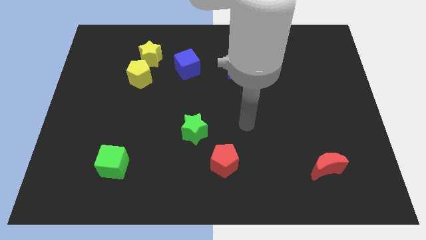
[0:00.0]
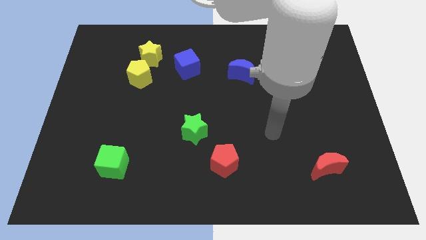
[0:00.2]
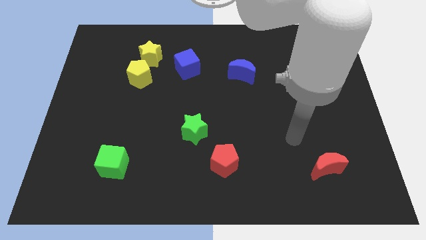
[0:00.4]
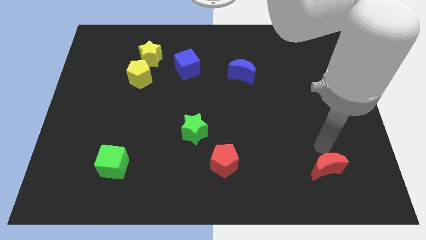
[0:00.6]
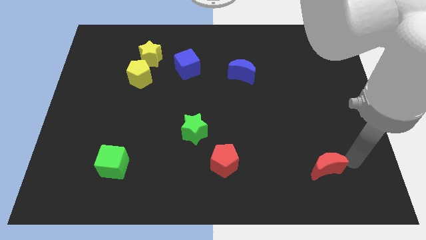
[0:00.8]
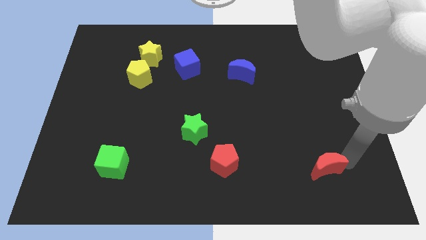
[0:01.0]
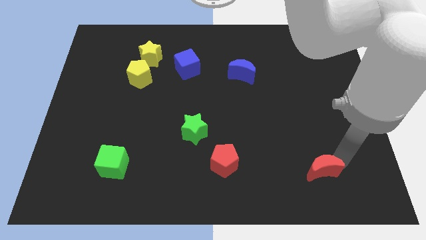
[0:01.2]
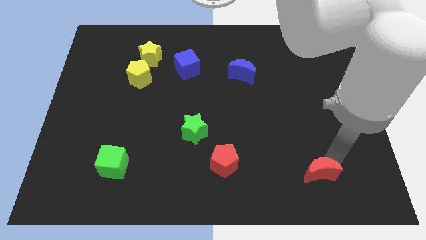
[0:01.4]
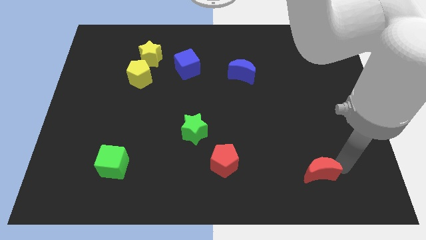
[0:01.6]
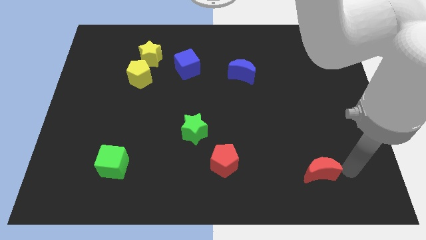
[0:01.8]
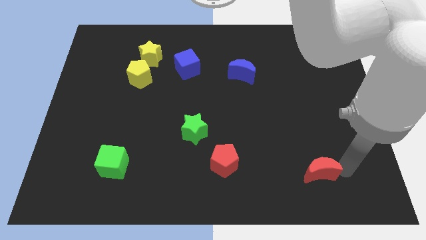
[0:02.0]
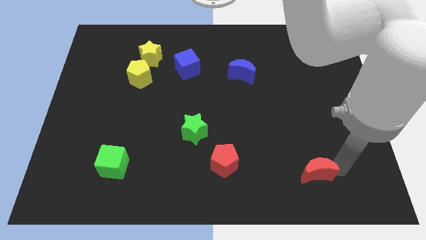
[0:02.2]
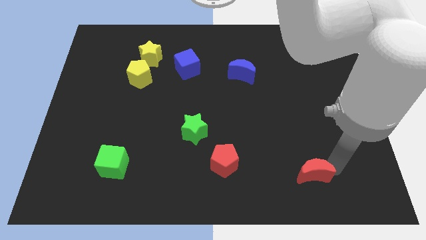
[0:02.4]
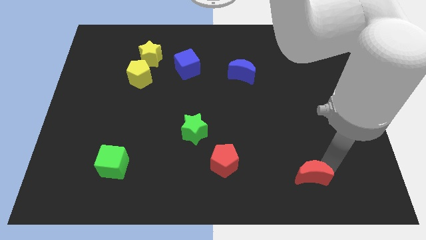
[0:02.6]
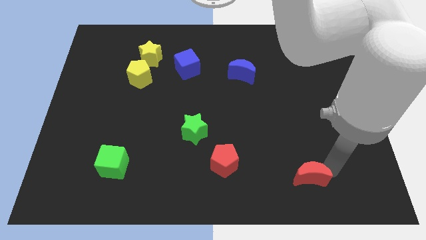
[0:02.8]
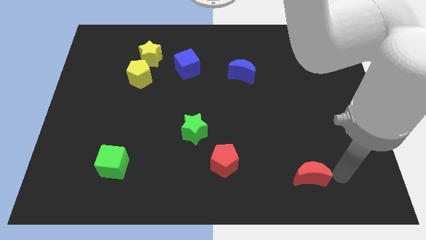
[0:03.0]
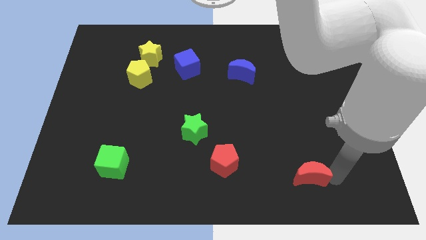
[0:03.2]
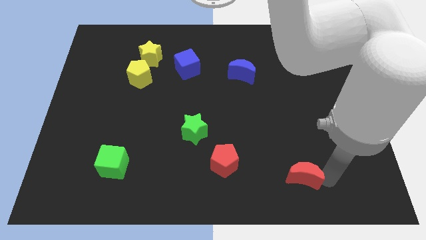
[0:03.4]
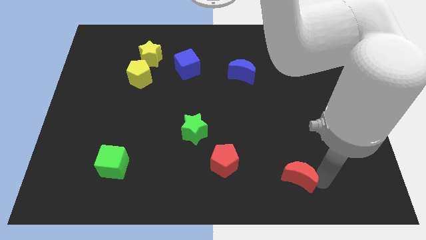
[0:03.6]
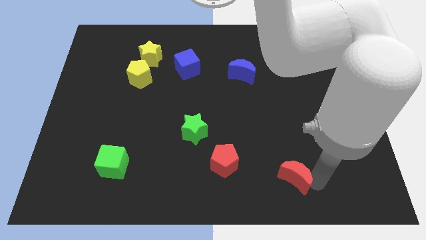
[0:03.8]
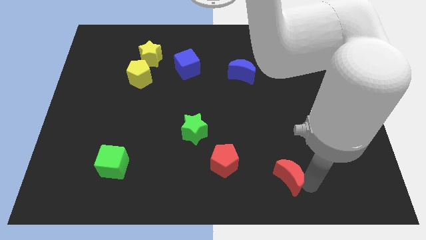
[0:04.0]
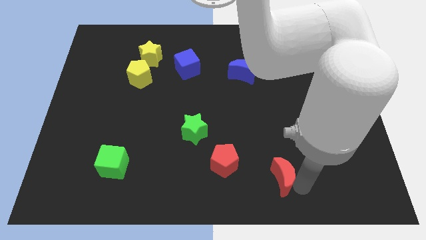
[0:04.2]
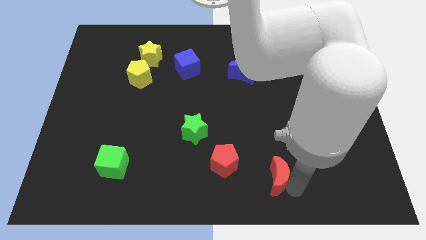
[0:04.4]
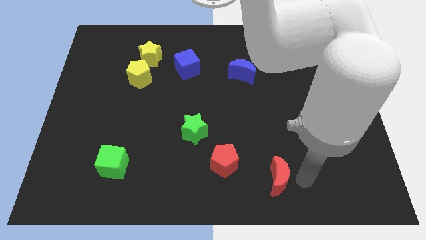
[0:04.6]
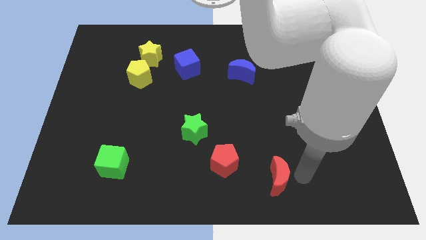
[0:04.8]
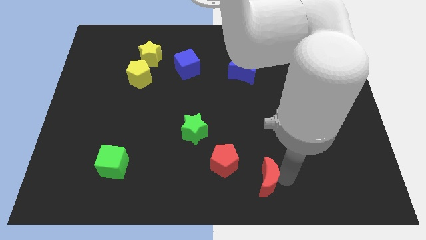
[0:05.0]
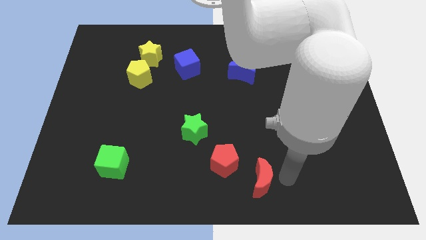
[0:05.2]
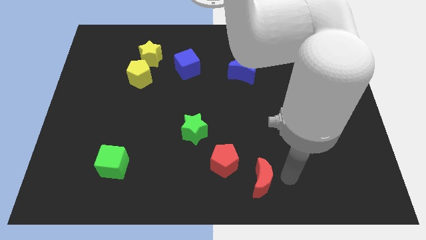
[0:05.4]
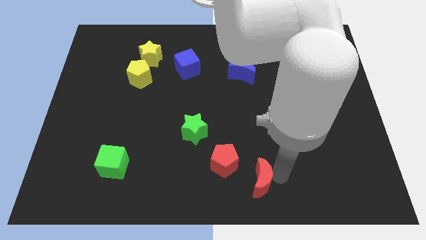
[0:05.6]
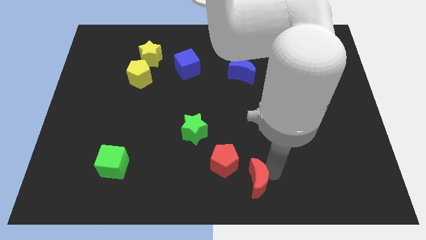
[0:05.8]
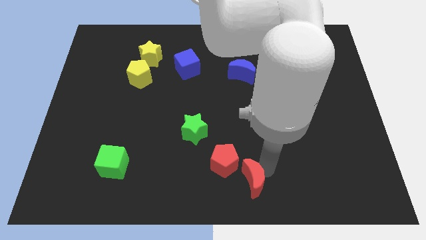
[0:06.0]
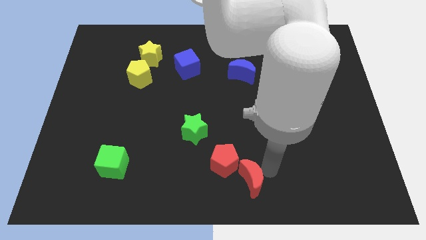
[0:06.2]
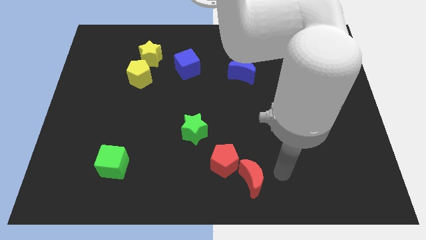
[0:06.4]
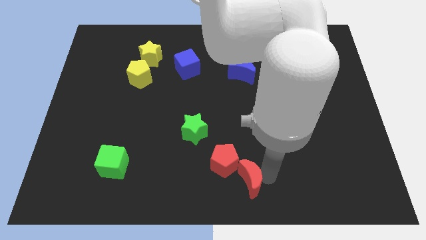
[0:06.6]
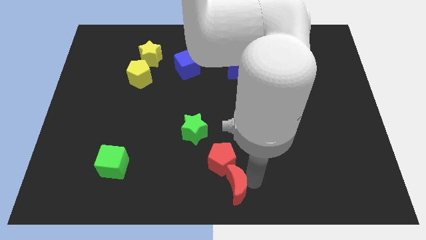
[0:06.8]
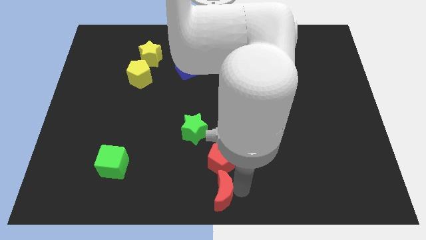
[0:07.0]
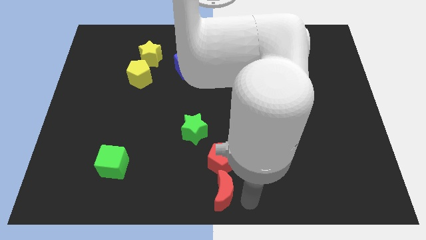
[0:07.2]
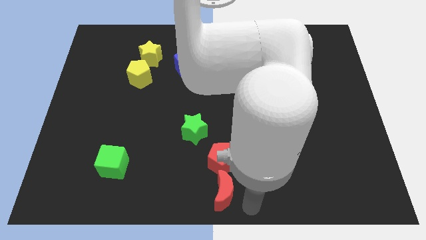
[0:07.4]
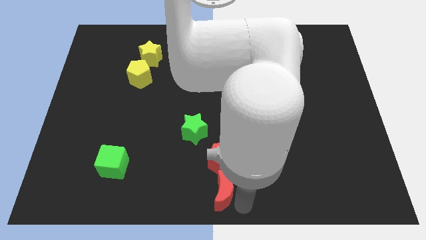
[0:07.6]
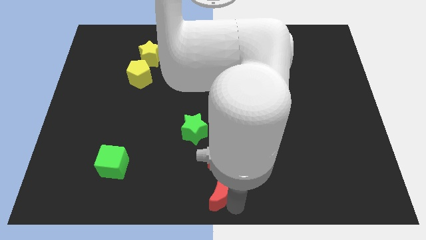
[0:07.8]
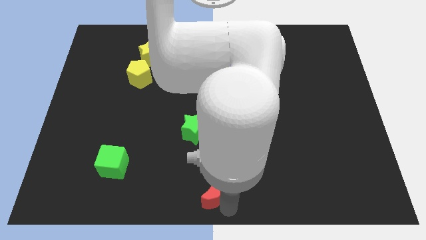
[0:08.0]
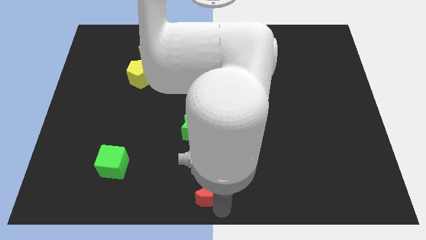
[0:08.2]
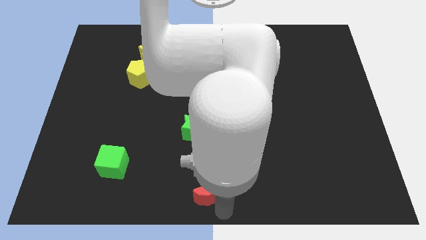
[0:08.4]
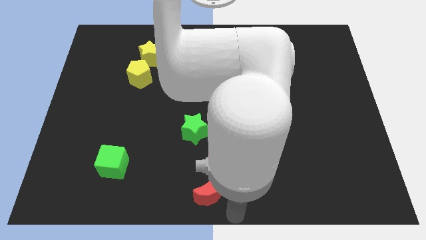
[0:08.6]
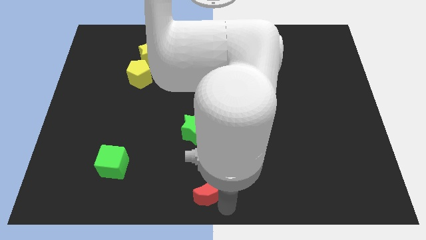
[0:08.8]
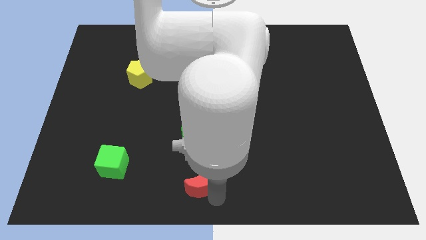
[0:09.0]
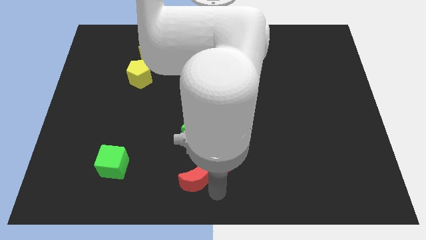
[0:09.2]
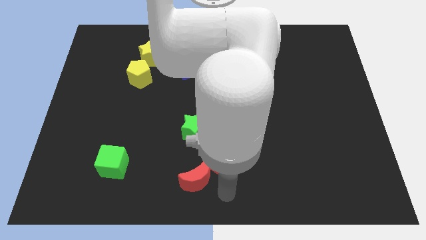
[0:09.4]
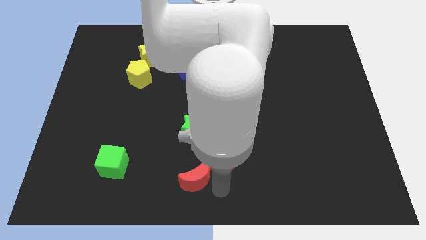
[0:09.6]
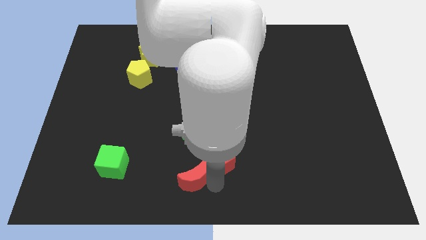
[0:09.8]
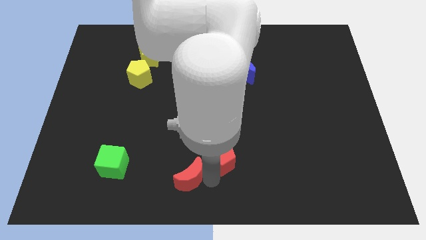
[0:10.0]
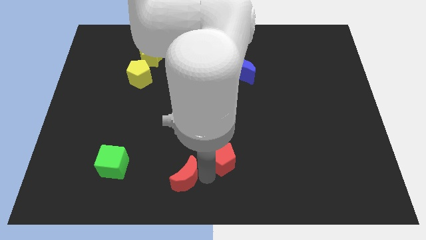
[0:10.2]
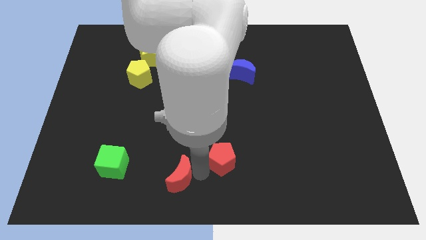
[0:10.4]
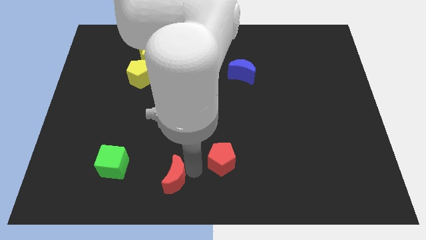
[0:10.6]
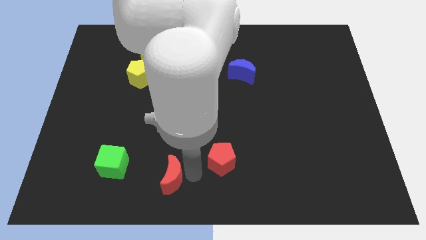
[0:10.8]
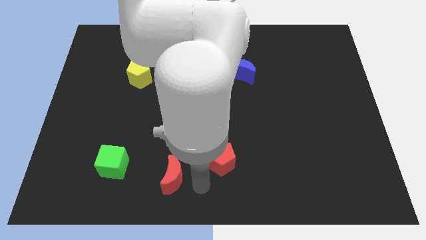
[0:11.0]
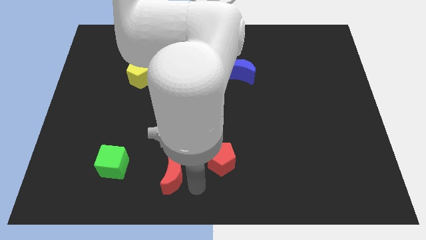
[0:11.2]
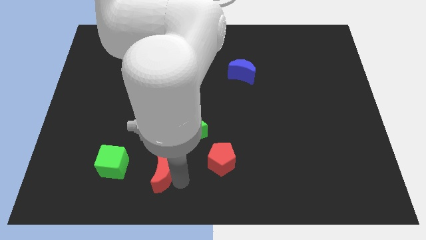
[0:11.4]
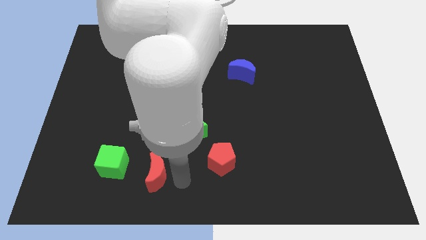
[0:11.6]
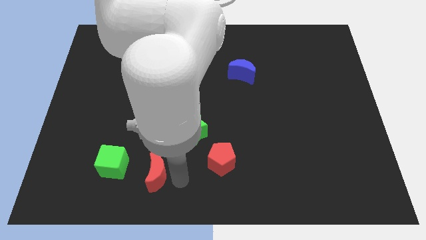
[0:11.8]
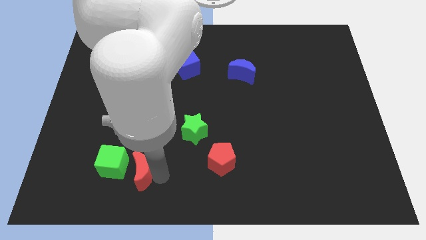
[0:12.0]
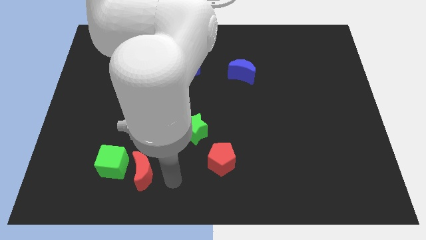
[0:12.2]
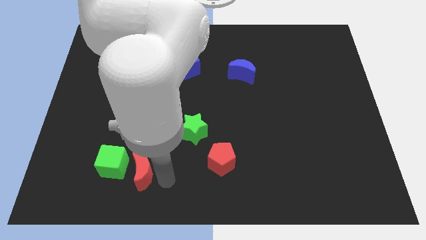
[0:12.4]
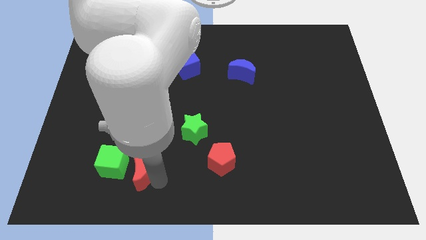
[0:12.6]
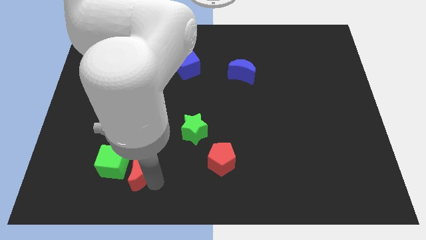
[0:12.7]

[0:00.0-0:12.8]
push the red moon next to the green cube
